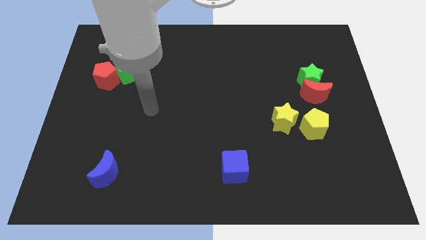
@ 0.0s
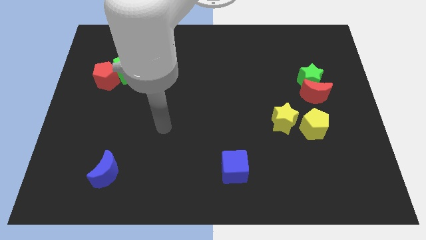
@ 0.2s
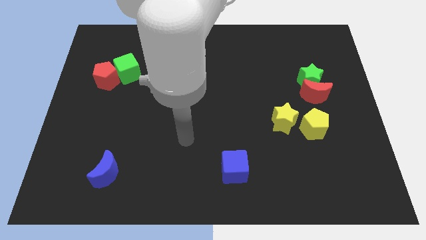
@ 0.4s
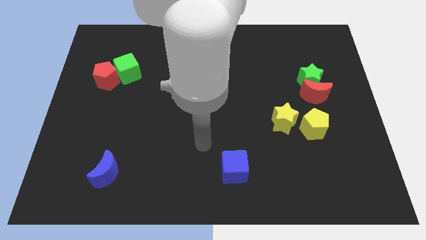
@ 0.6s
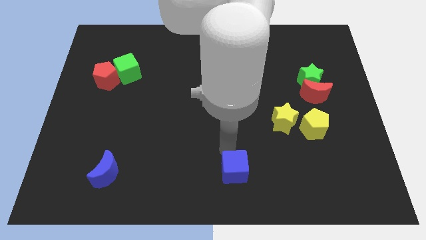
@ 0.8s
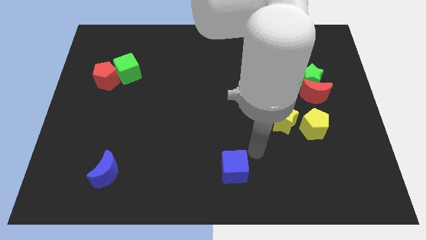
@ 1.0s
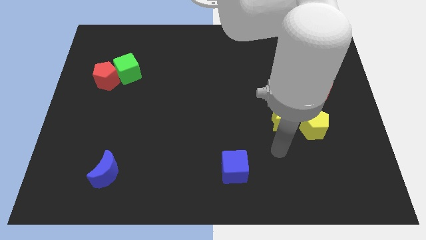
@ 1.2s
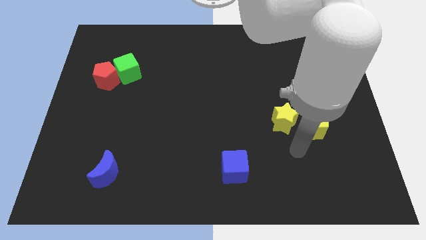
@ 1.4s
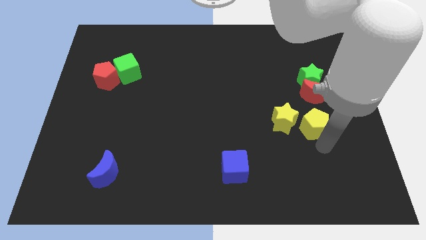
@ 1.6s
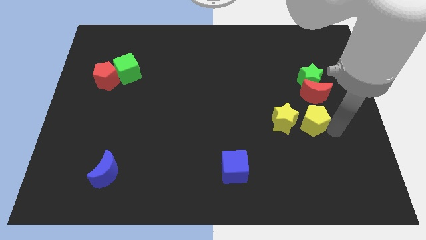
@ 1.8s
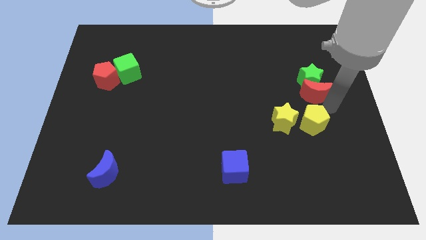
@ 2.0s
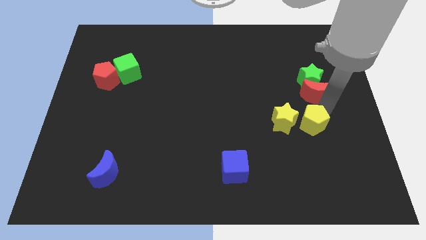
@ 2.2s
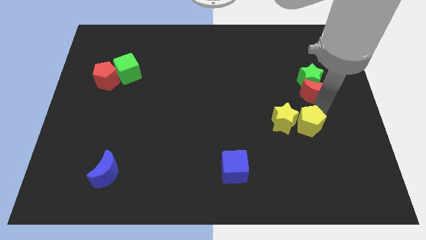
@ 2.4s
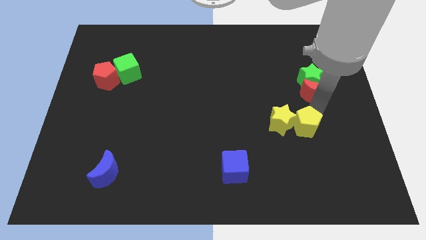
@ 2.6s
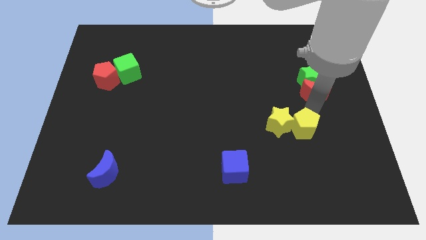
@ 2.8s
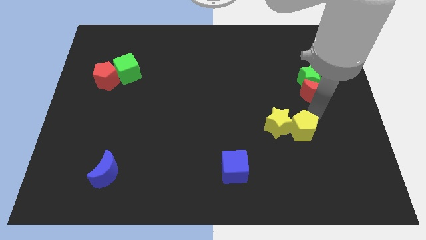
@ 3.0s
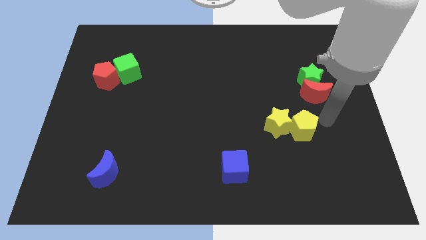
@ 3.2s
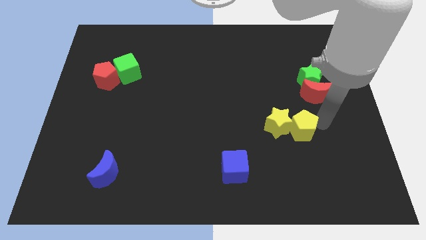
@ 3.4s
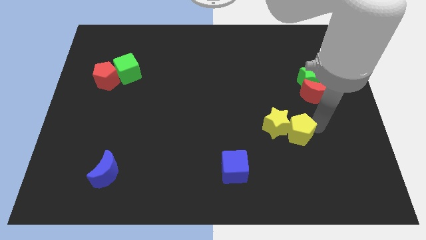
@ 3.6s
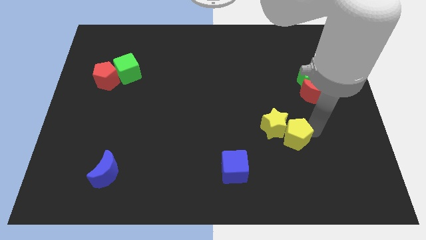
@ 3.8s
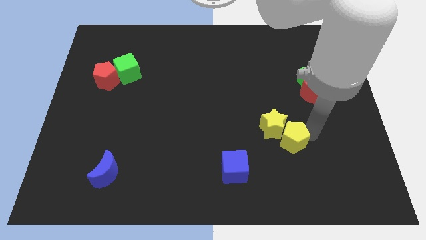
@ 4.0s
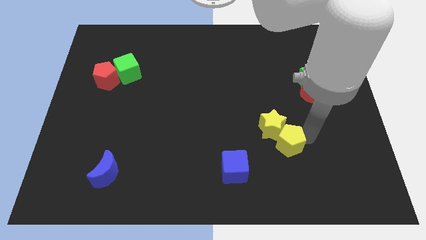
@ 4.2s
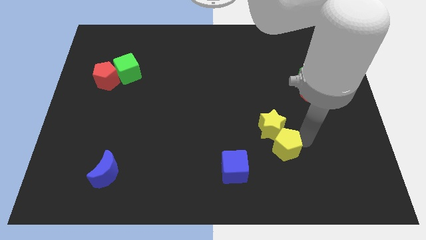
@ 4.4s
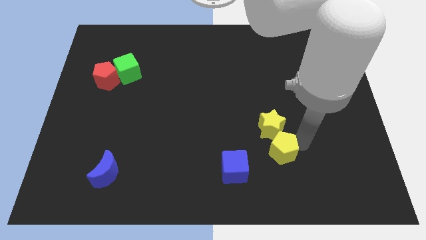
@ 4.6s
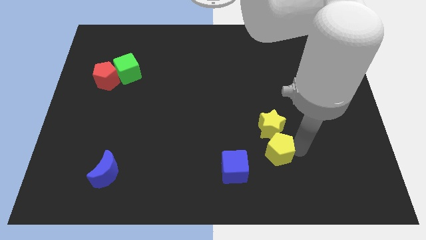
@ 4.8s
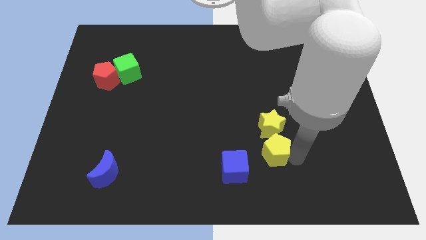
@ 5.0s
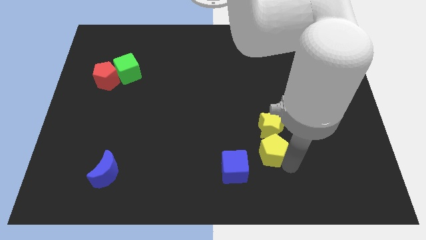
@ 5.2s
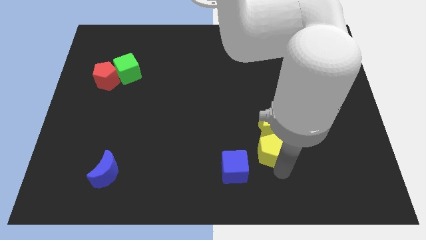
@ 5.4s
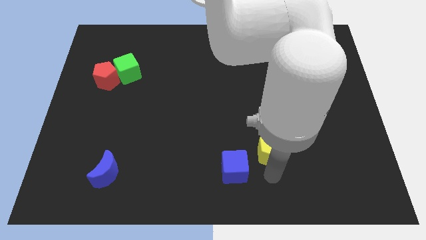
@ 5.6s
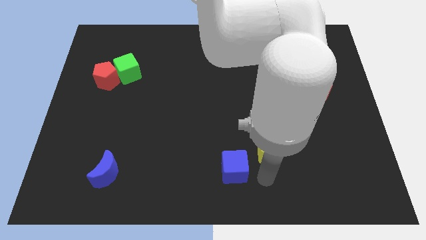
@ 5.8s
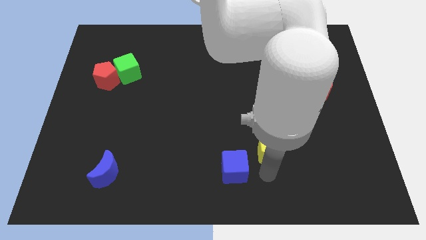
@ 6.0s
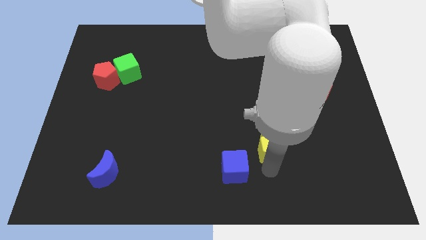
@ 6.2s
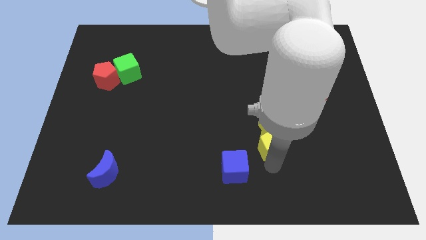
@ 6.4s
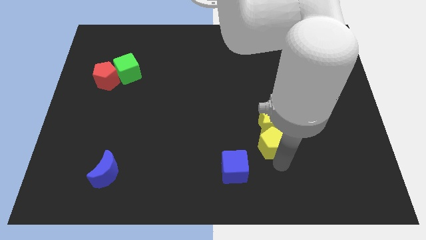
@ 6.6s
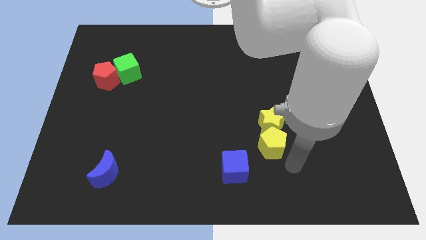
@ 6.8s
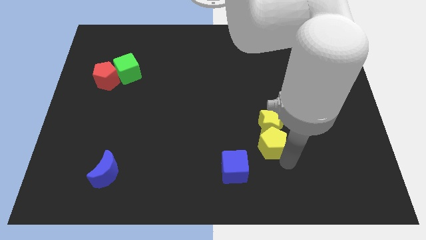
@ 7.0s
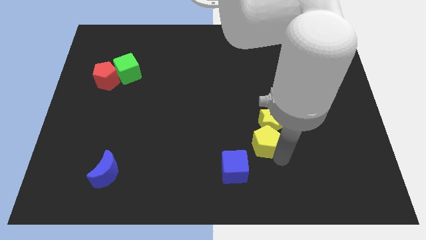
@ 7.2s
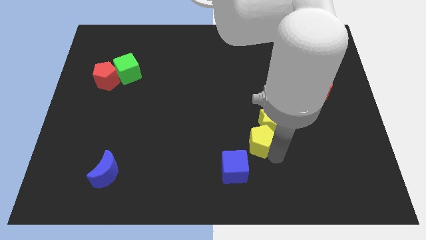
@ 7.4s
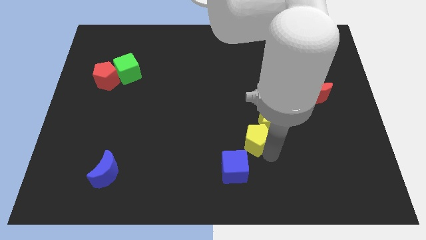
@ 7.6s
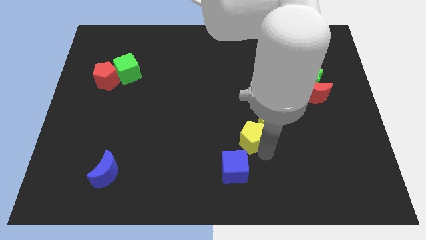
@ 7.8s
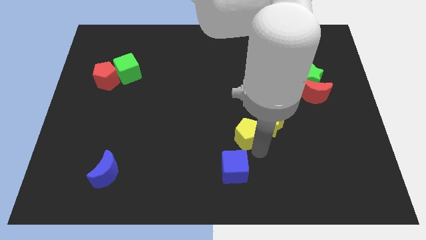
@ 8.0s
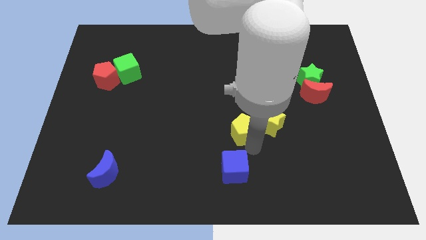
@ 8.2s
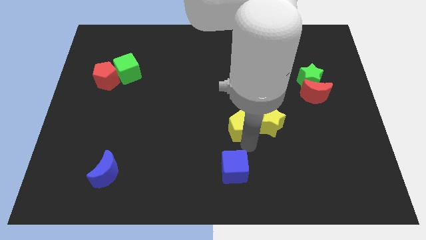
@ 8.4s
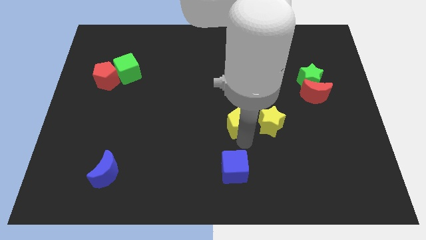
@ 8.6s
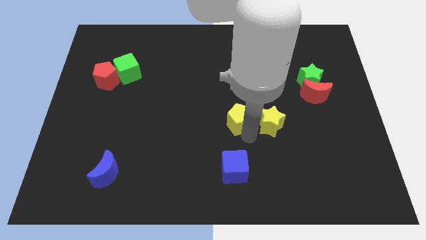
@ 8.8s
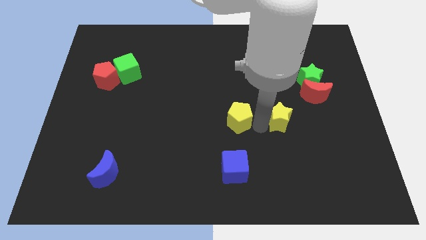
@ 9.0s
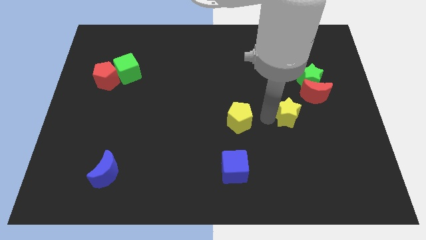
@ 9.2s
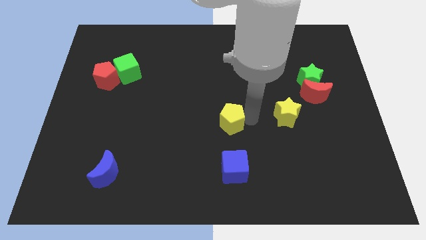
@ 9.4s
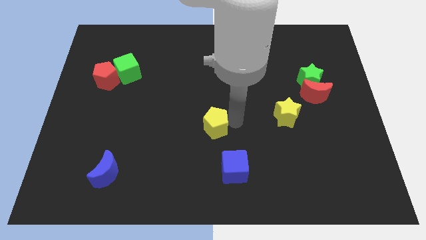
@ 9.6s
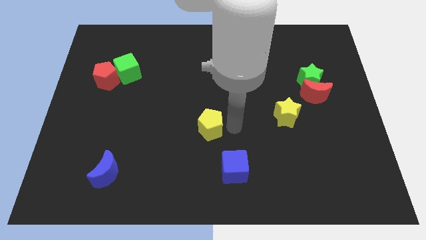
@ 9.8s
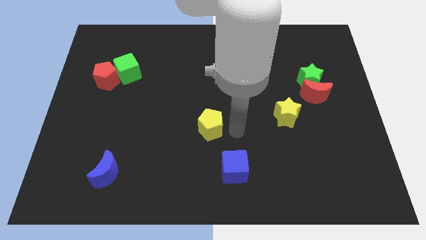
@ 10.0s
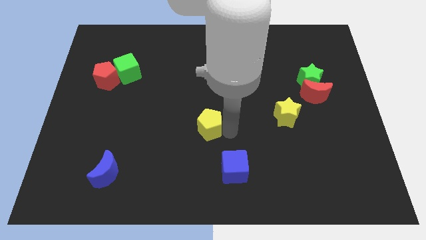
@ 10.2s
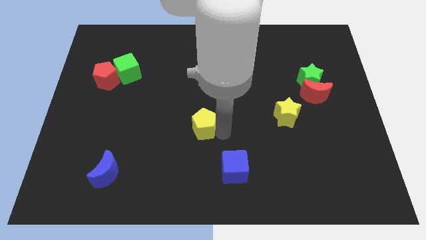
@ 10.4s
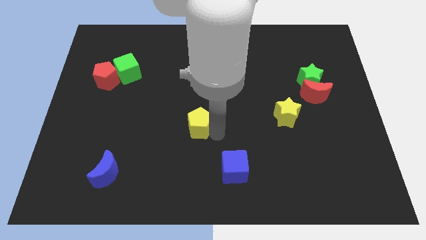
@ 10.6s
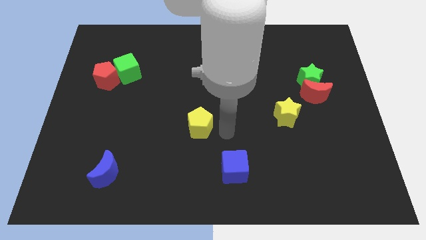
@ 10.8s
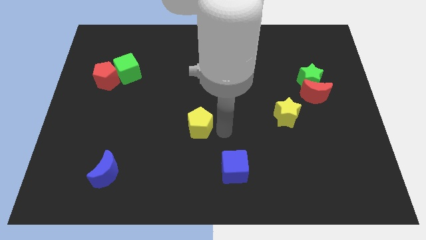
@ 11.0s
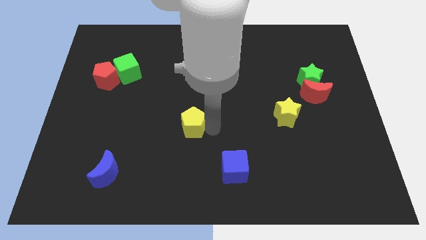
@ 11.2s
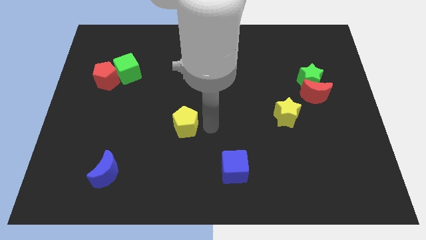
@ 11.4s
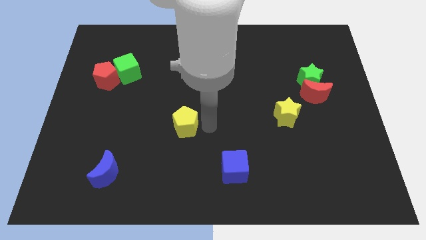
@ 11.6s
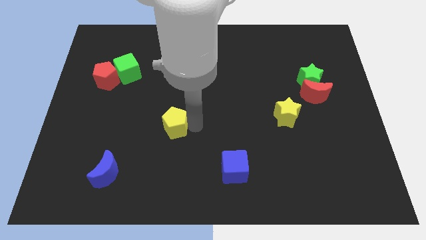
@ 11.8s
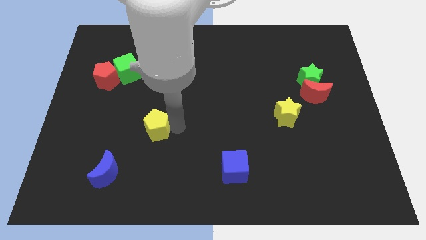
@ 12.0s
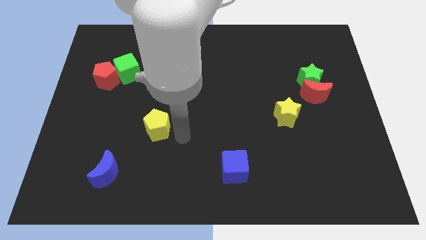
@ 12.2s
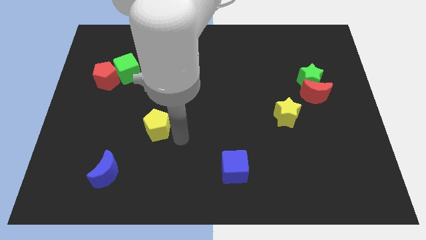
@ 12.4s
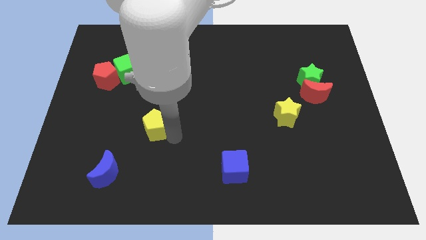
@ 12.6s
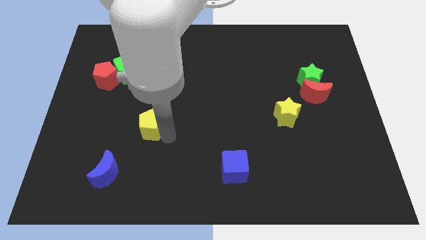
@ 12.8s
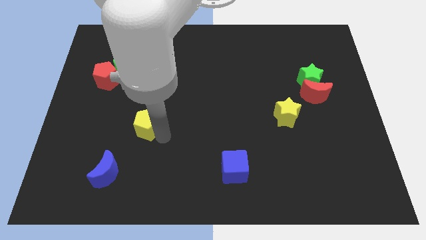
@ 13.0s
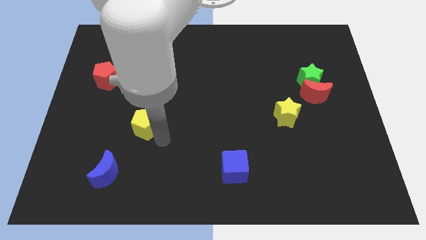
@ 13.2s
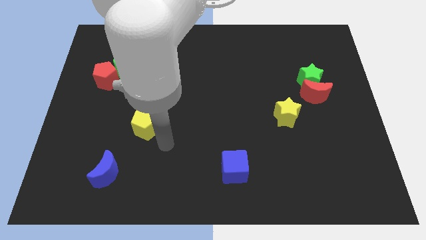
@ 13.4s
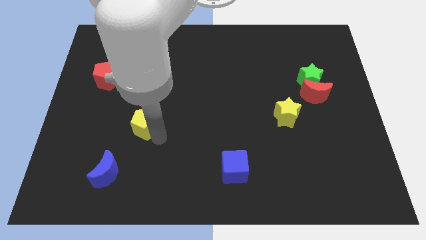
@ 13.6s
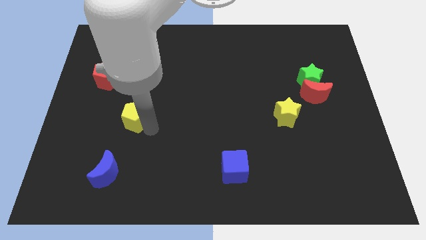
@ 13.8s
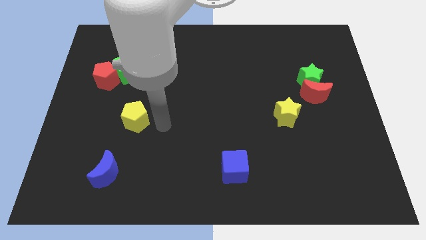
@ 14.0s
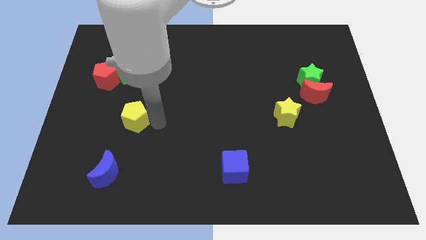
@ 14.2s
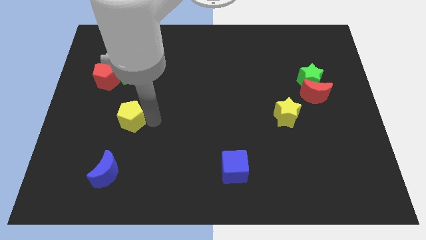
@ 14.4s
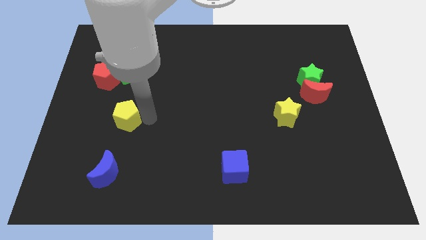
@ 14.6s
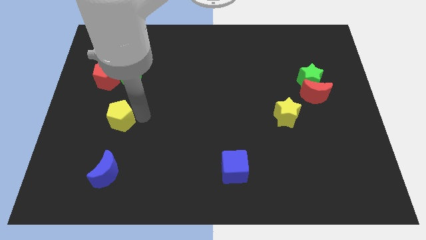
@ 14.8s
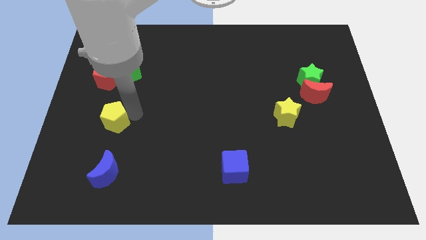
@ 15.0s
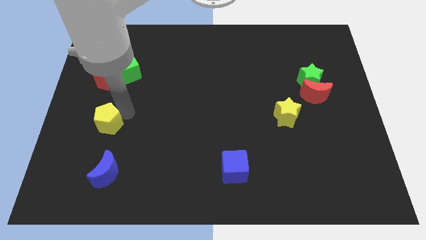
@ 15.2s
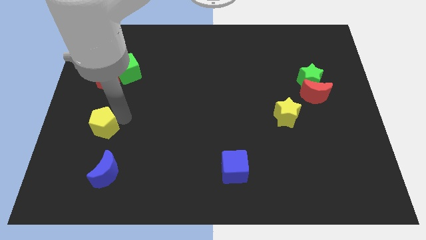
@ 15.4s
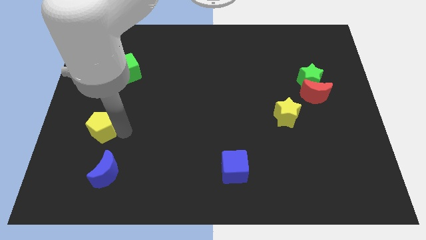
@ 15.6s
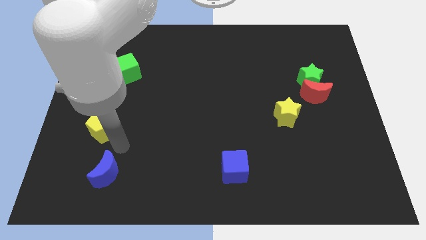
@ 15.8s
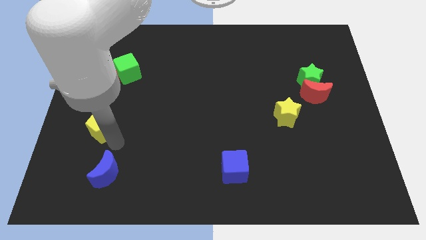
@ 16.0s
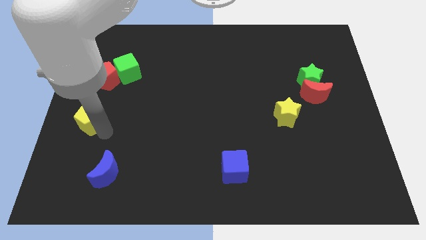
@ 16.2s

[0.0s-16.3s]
slide the yellow pentagon to the center left
